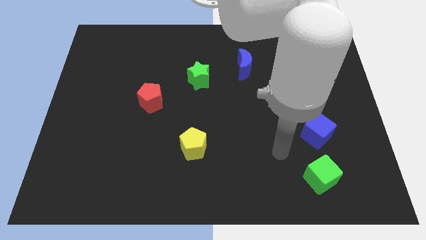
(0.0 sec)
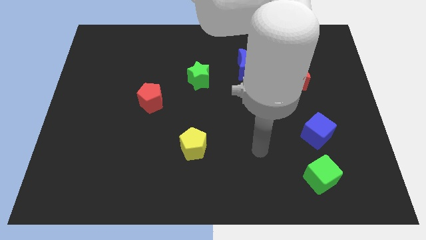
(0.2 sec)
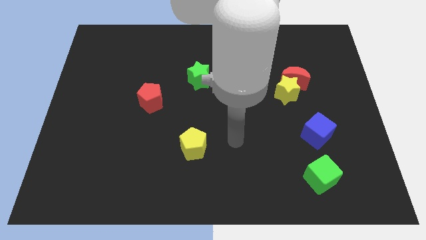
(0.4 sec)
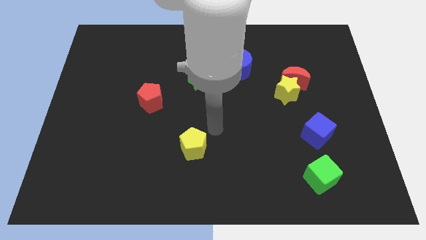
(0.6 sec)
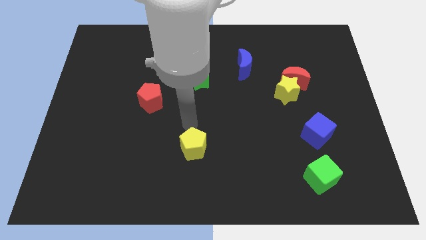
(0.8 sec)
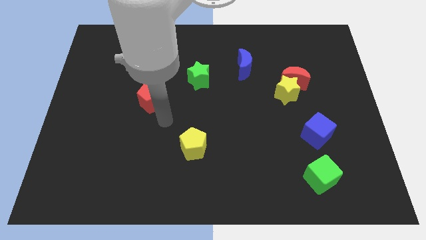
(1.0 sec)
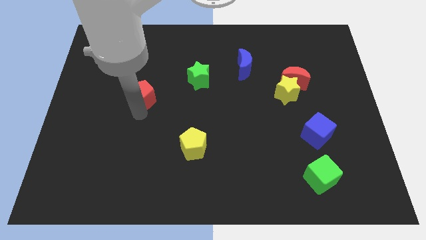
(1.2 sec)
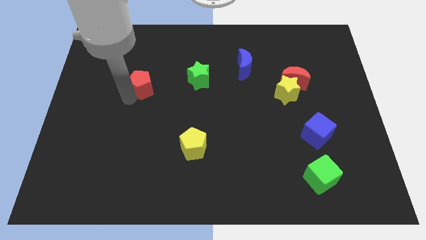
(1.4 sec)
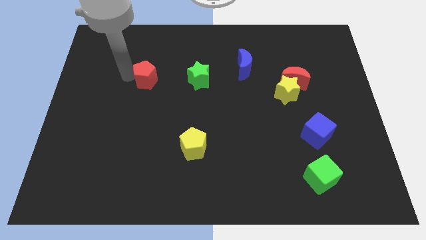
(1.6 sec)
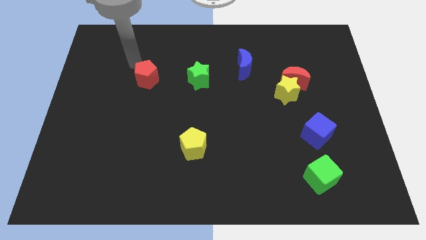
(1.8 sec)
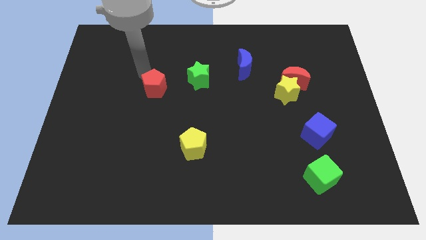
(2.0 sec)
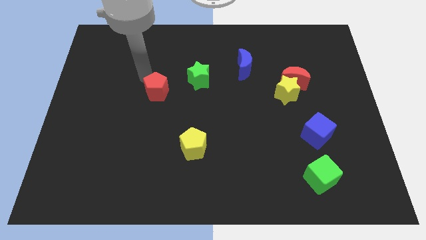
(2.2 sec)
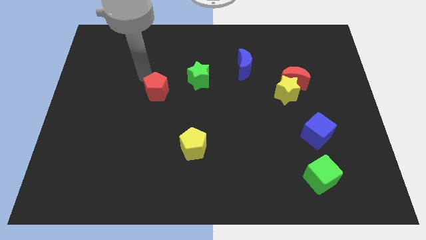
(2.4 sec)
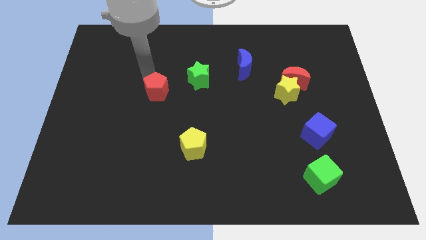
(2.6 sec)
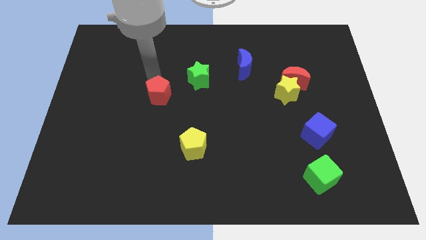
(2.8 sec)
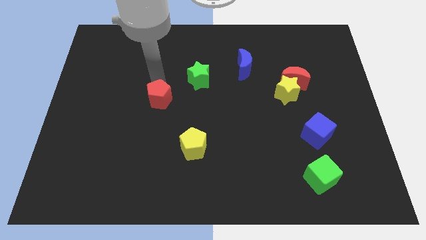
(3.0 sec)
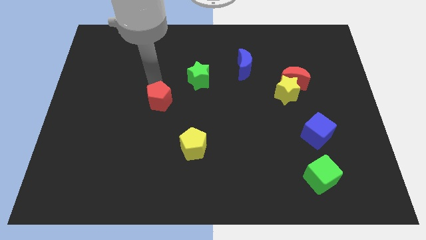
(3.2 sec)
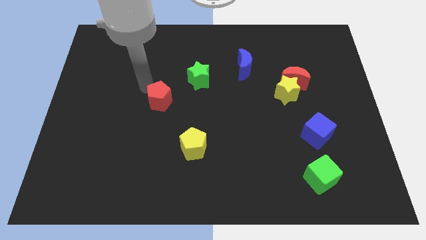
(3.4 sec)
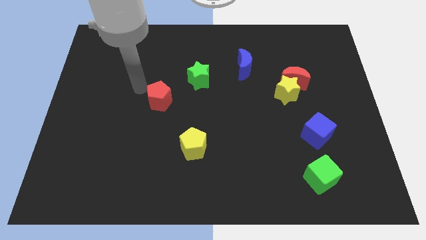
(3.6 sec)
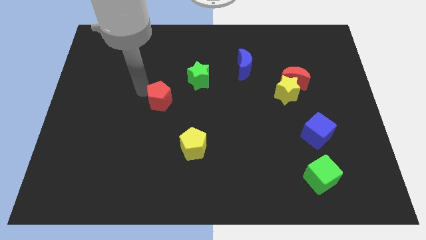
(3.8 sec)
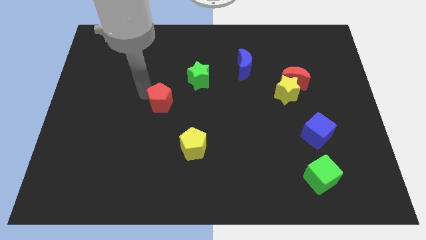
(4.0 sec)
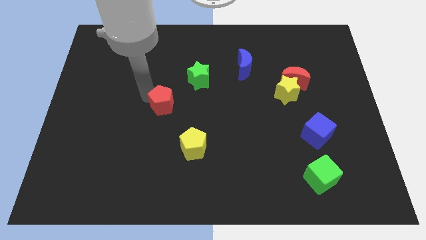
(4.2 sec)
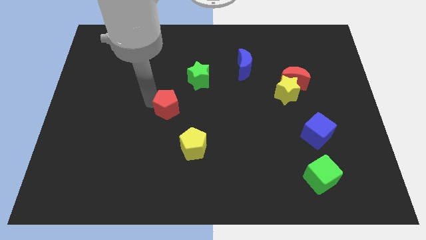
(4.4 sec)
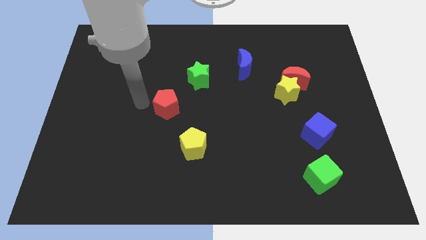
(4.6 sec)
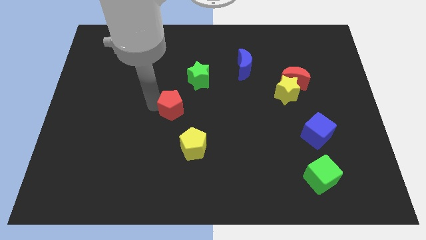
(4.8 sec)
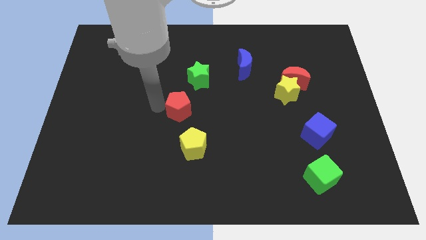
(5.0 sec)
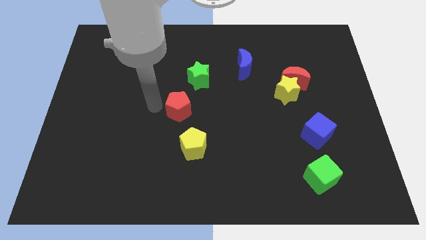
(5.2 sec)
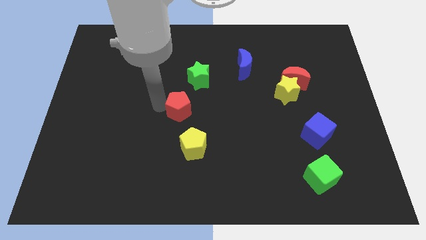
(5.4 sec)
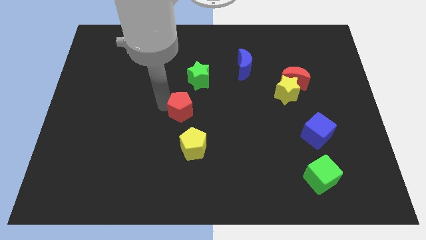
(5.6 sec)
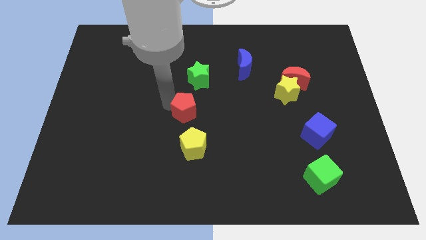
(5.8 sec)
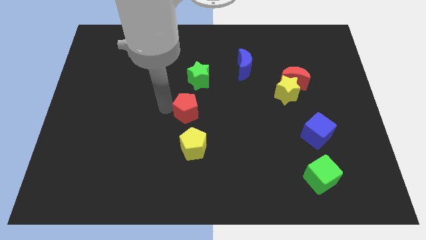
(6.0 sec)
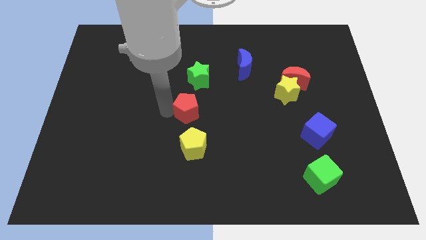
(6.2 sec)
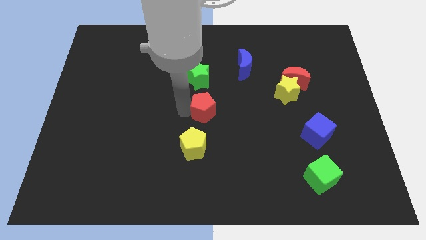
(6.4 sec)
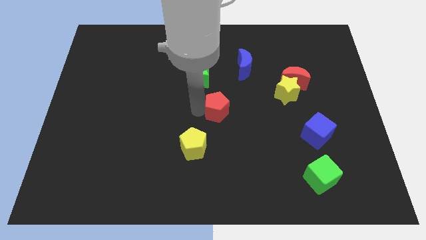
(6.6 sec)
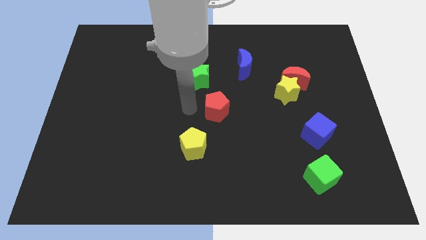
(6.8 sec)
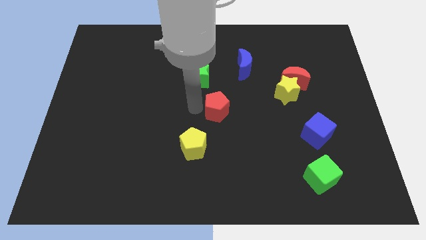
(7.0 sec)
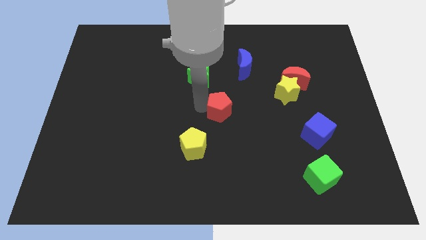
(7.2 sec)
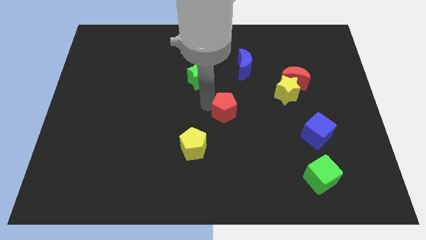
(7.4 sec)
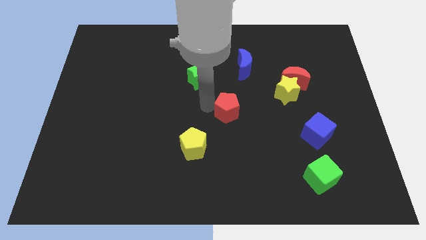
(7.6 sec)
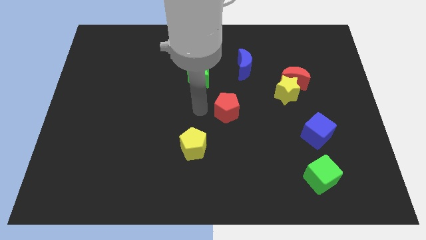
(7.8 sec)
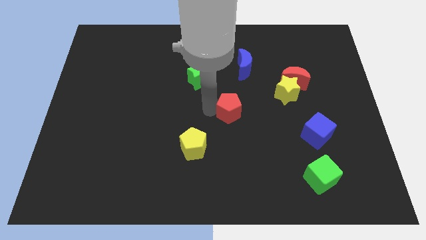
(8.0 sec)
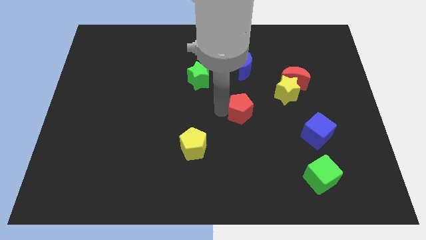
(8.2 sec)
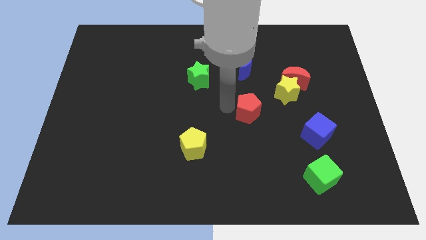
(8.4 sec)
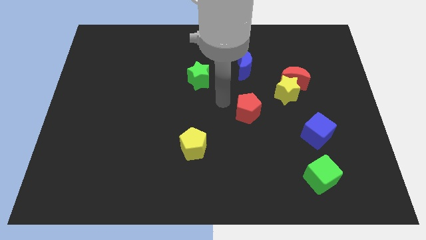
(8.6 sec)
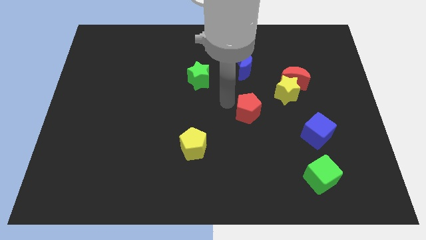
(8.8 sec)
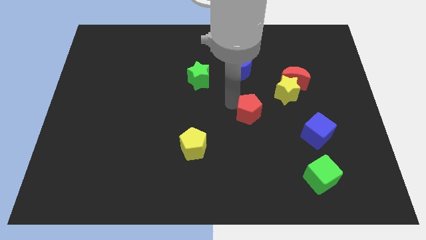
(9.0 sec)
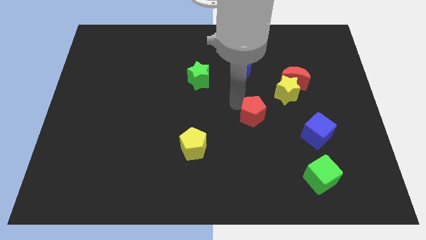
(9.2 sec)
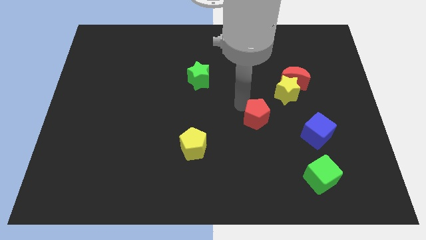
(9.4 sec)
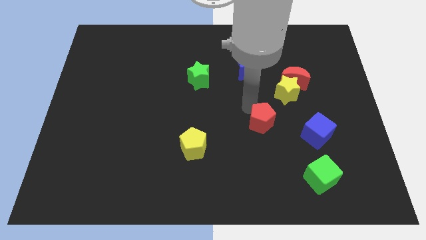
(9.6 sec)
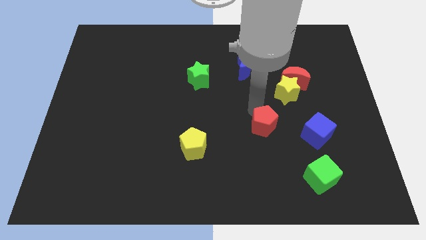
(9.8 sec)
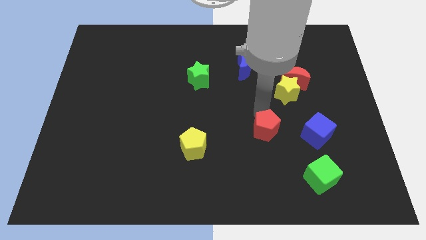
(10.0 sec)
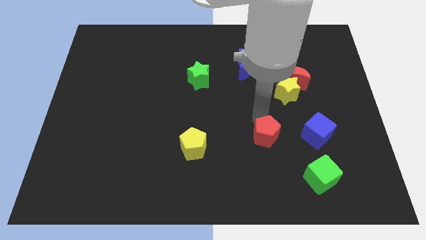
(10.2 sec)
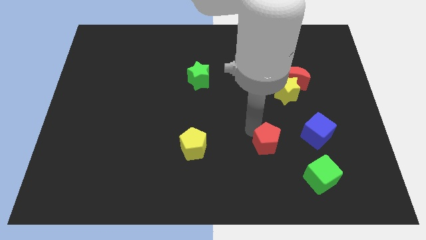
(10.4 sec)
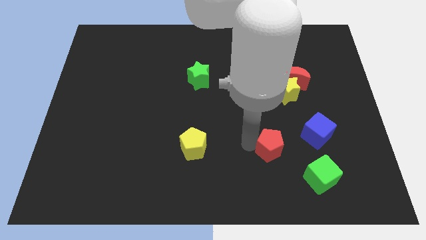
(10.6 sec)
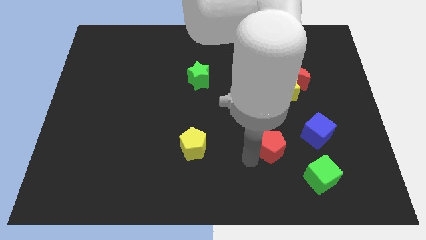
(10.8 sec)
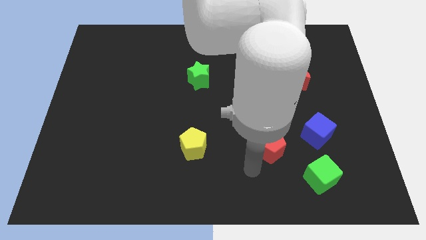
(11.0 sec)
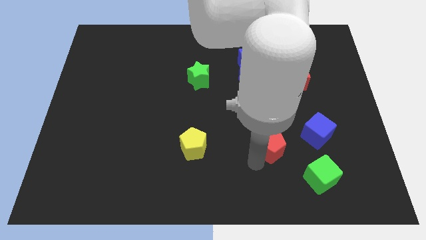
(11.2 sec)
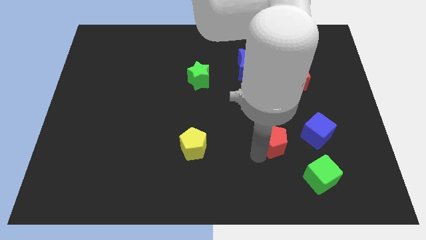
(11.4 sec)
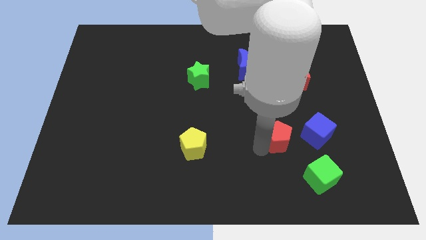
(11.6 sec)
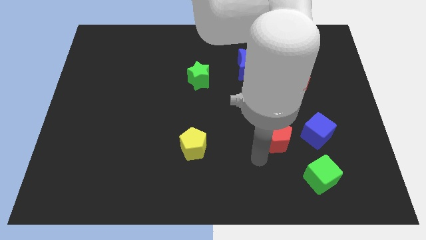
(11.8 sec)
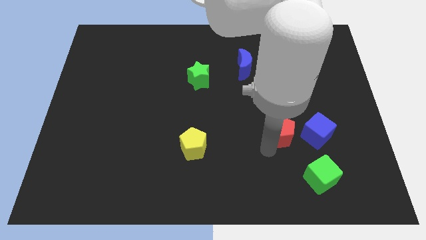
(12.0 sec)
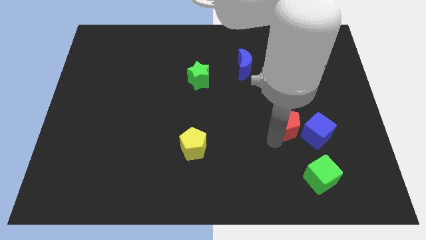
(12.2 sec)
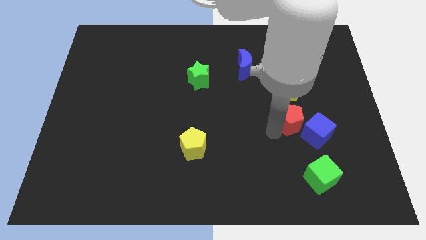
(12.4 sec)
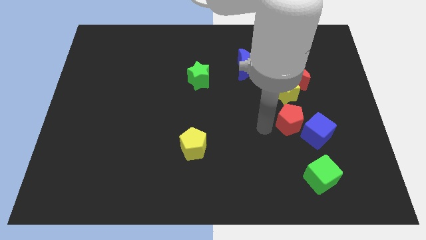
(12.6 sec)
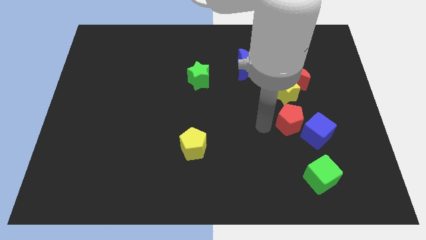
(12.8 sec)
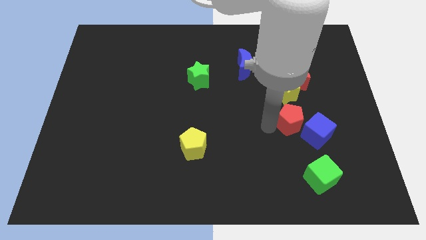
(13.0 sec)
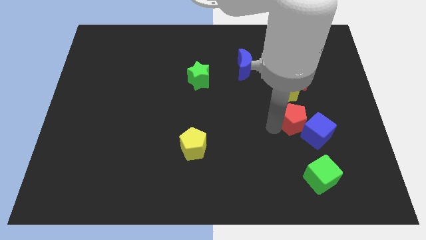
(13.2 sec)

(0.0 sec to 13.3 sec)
move the red pentagon to the top of the green cube

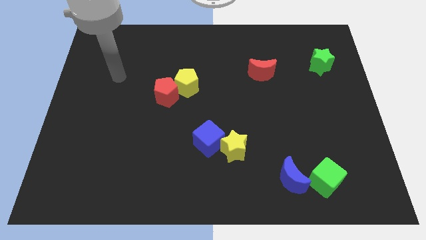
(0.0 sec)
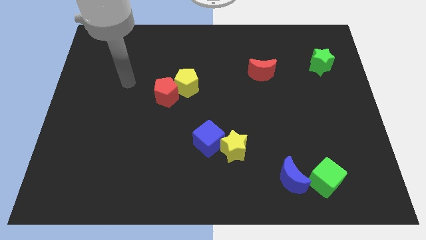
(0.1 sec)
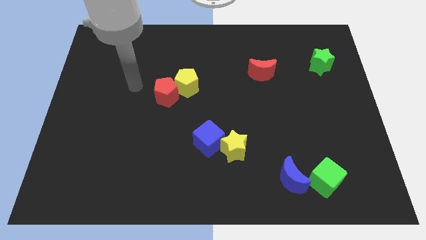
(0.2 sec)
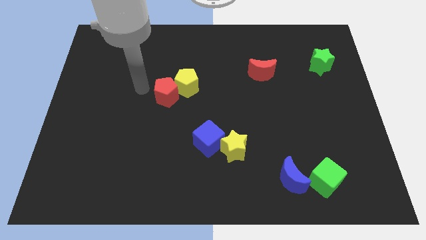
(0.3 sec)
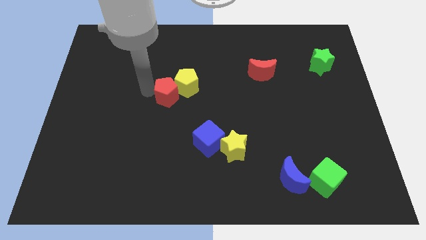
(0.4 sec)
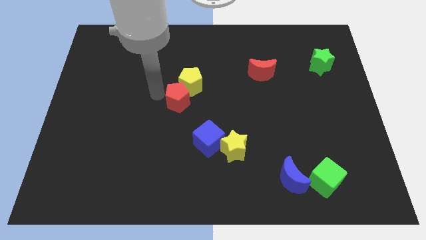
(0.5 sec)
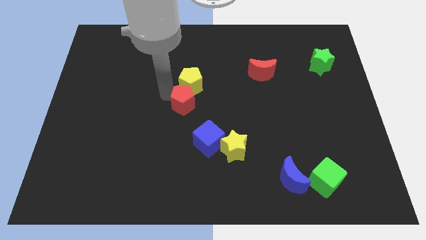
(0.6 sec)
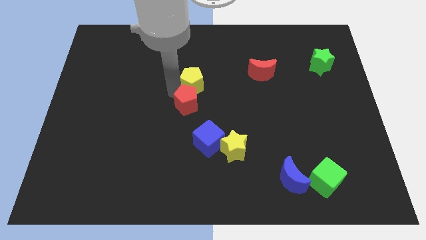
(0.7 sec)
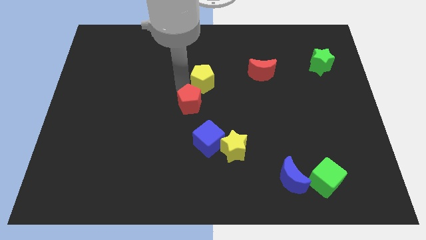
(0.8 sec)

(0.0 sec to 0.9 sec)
put the yellow pentagon just left of the red moon
